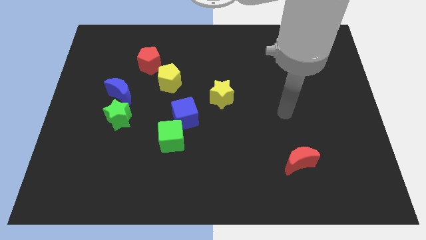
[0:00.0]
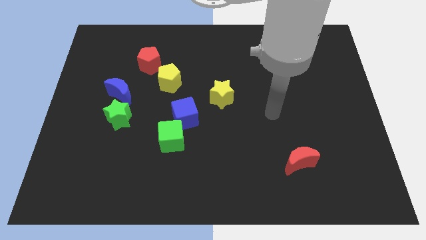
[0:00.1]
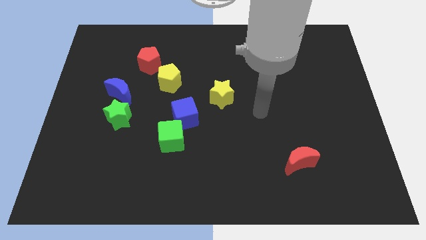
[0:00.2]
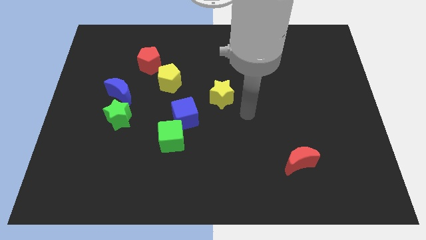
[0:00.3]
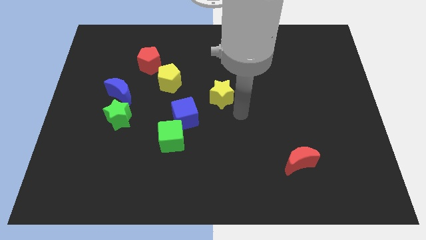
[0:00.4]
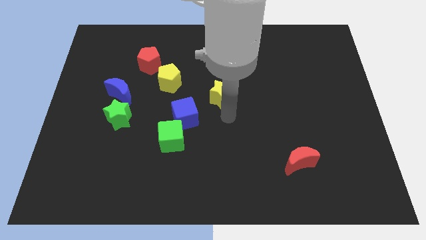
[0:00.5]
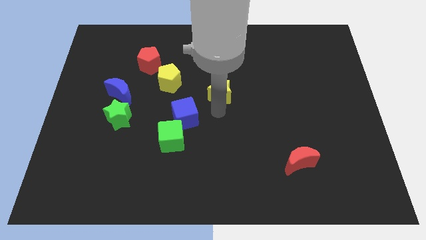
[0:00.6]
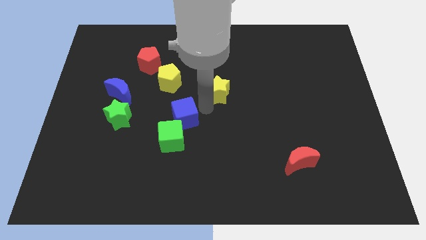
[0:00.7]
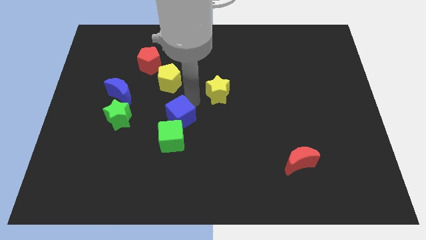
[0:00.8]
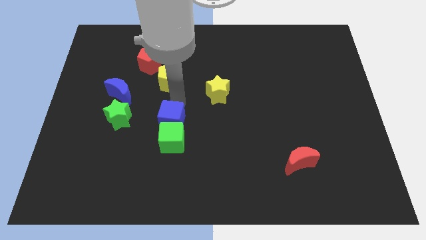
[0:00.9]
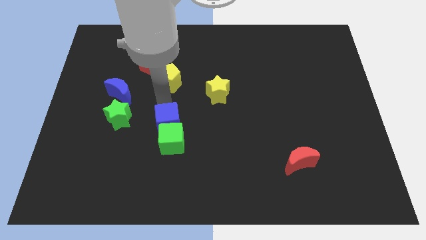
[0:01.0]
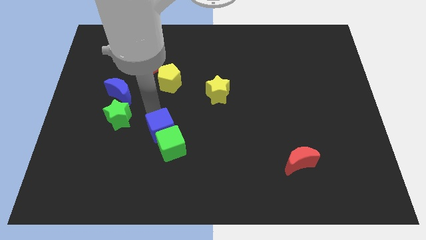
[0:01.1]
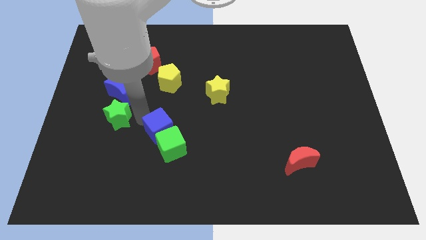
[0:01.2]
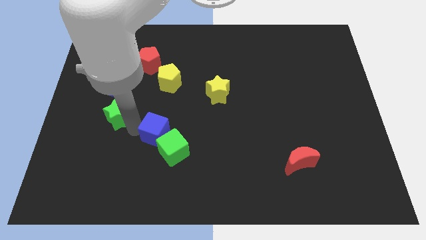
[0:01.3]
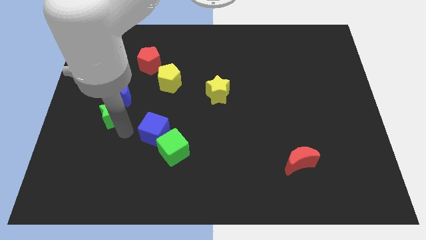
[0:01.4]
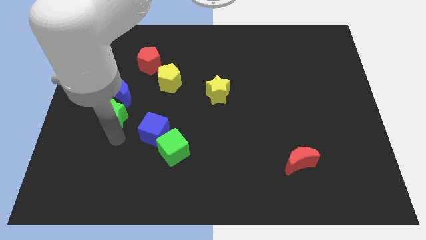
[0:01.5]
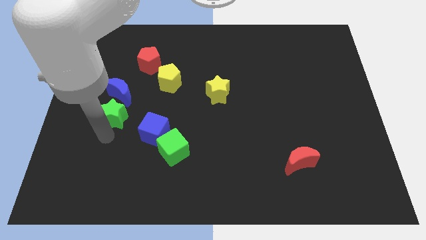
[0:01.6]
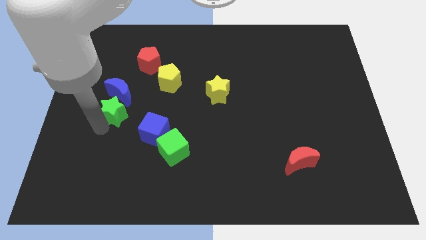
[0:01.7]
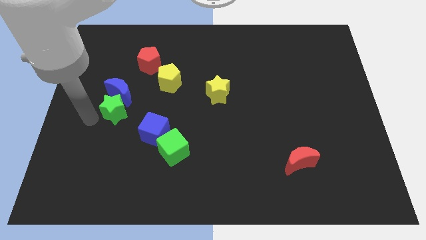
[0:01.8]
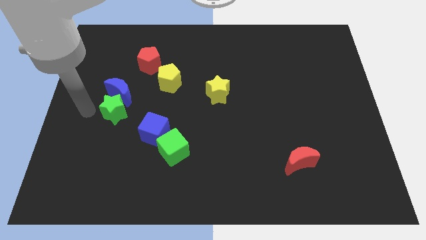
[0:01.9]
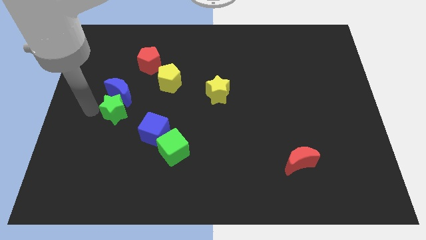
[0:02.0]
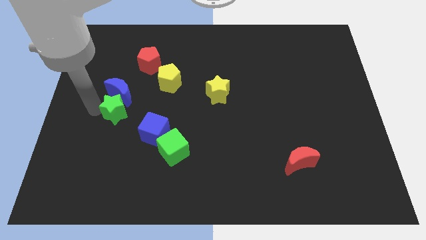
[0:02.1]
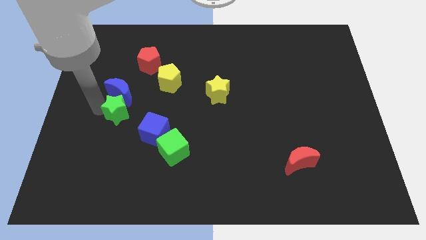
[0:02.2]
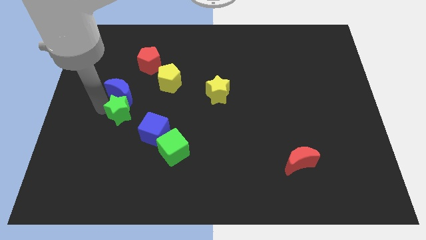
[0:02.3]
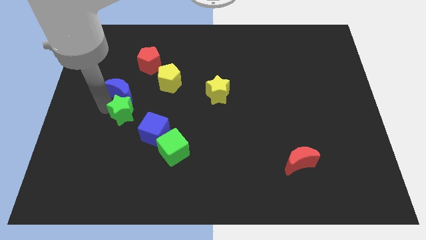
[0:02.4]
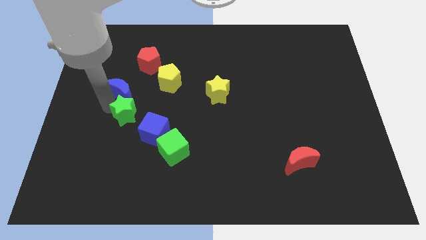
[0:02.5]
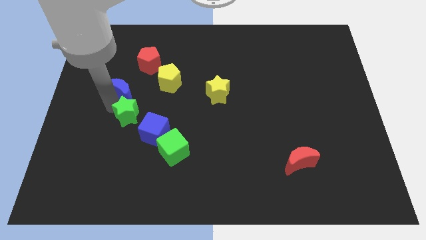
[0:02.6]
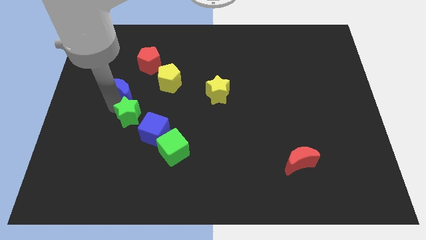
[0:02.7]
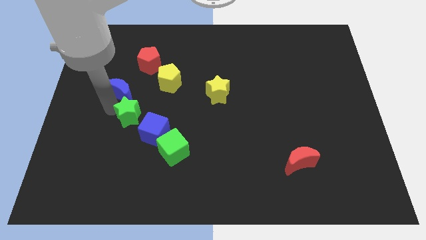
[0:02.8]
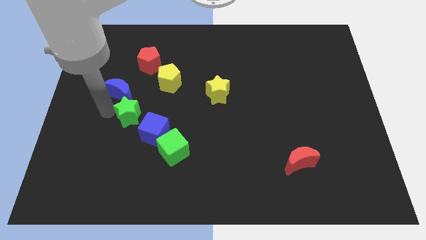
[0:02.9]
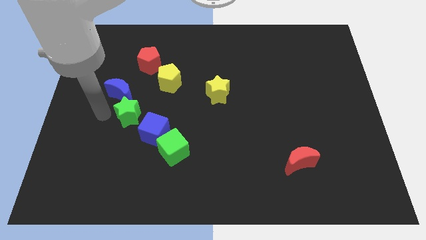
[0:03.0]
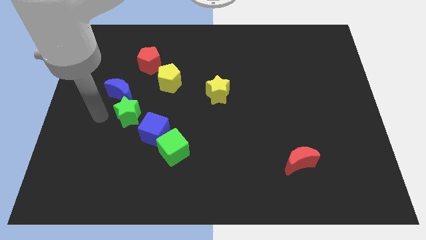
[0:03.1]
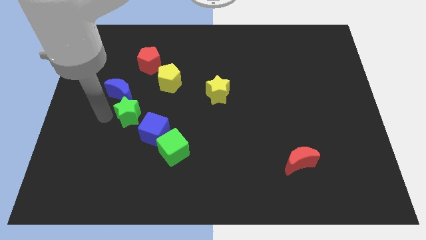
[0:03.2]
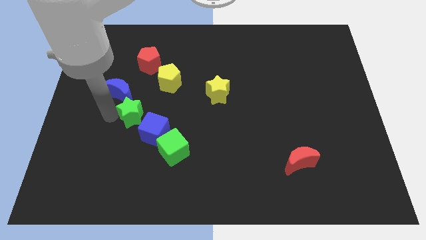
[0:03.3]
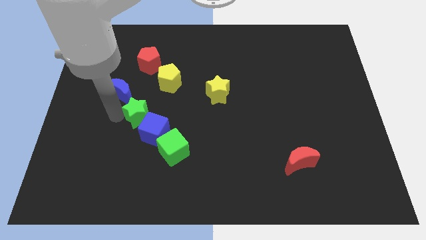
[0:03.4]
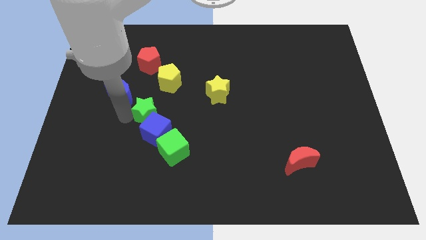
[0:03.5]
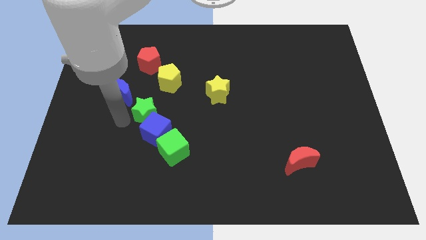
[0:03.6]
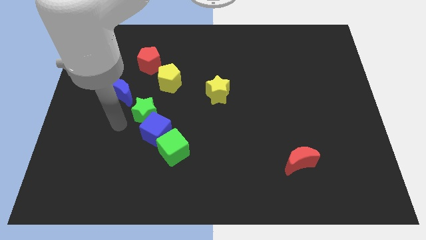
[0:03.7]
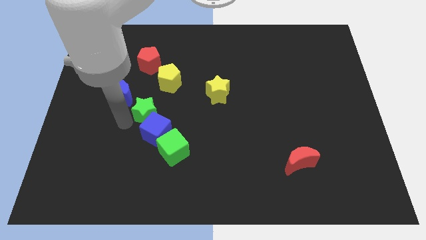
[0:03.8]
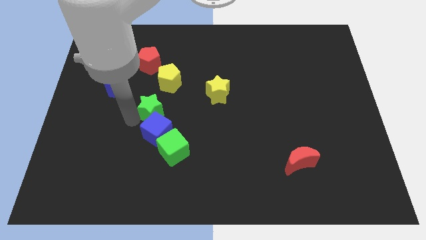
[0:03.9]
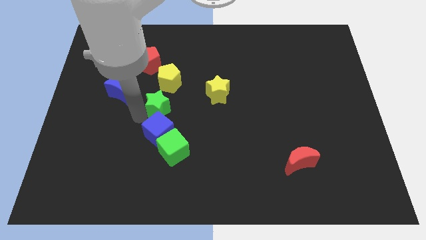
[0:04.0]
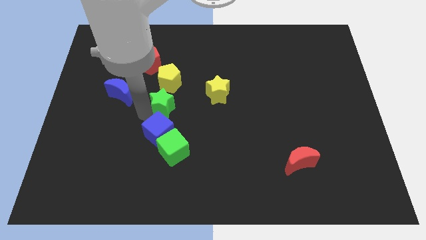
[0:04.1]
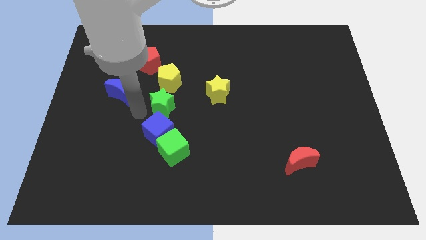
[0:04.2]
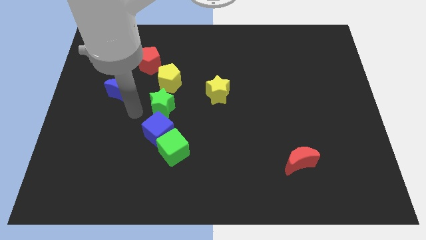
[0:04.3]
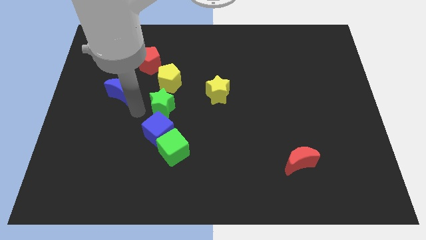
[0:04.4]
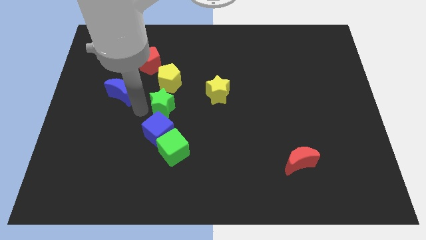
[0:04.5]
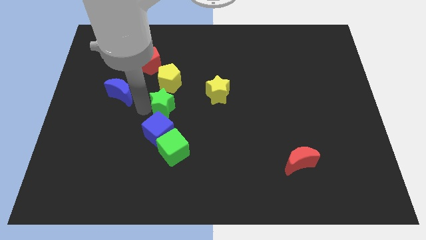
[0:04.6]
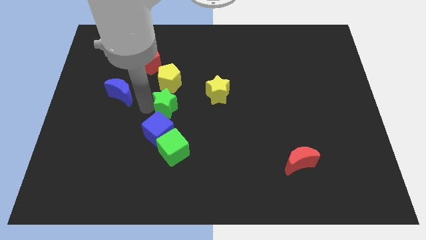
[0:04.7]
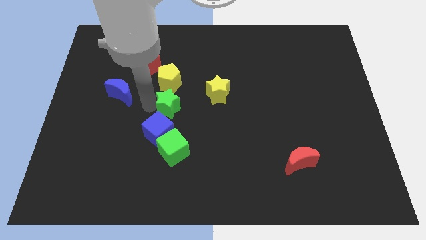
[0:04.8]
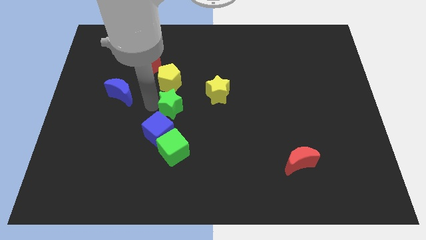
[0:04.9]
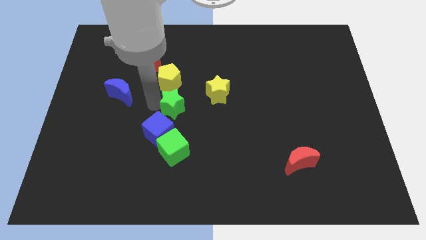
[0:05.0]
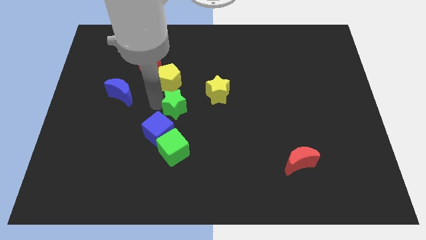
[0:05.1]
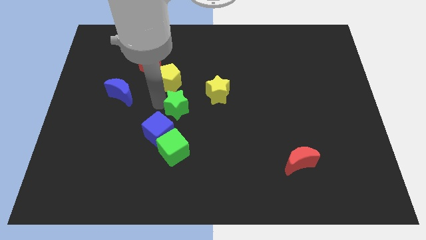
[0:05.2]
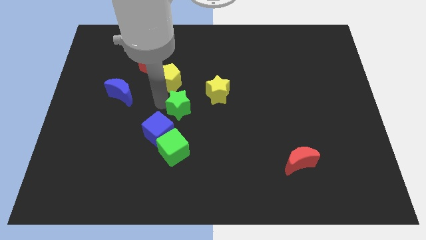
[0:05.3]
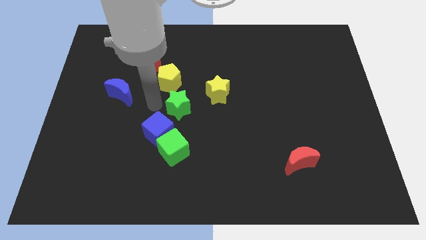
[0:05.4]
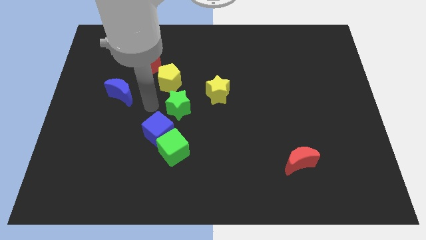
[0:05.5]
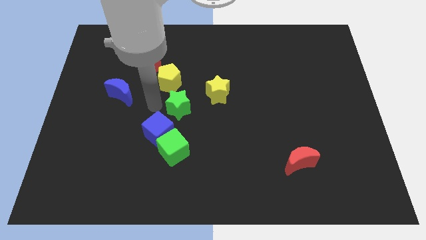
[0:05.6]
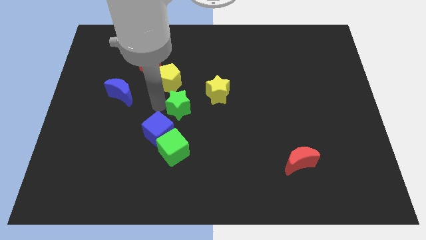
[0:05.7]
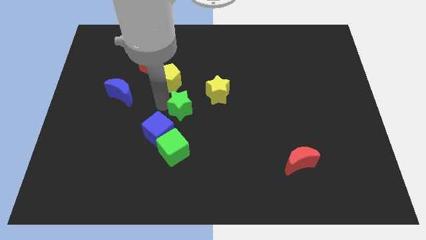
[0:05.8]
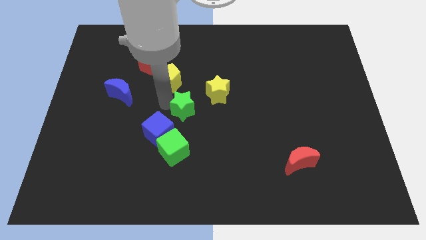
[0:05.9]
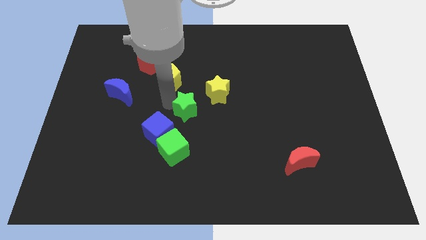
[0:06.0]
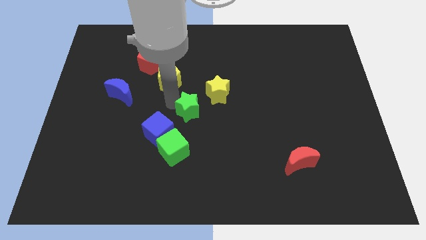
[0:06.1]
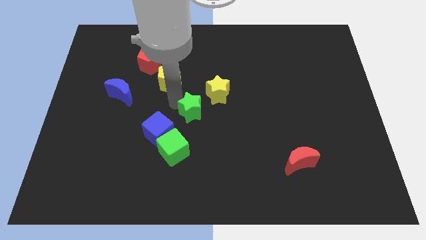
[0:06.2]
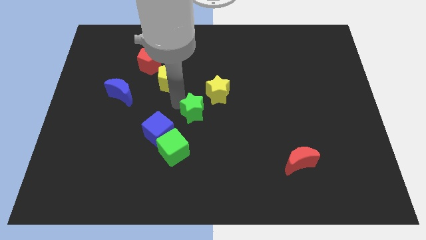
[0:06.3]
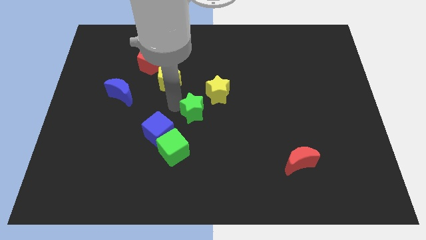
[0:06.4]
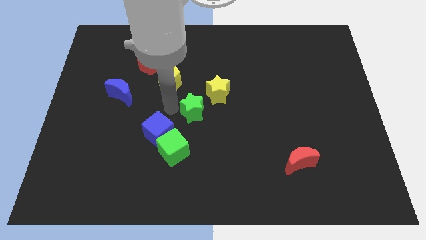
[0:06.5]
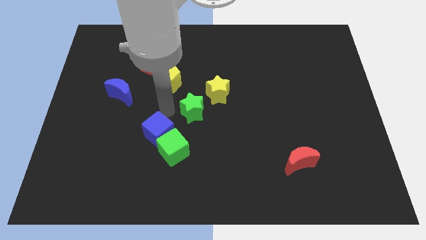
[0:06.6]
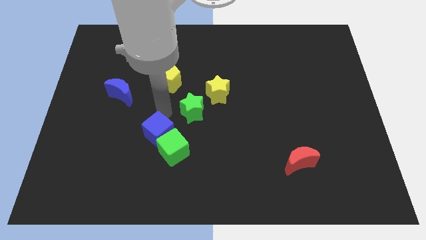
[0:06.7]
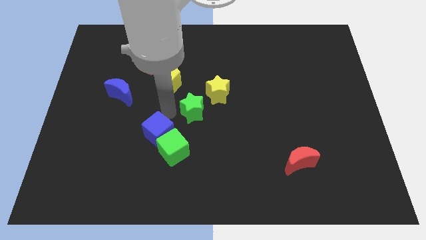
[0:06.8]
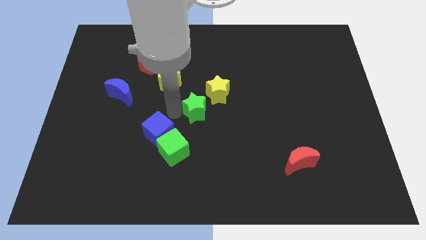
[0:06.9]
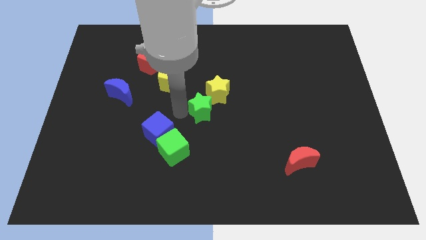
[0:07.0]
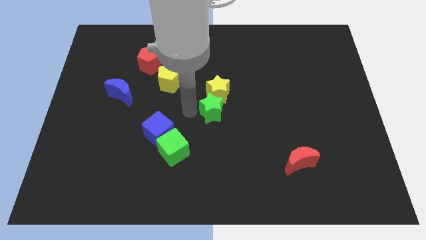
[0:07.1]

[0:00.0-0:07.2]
slide the green star right

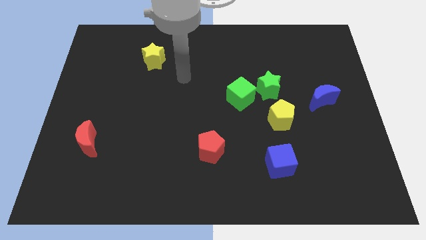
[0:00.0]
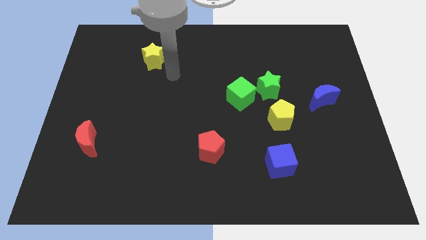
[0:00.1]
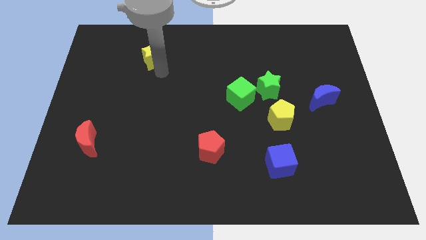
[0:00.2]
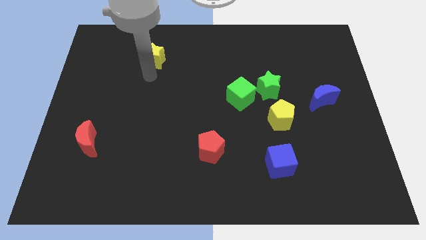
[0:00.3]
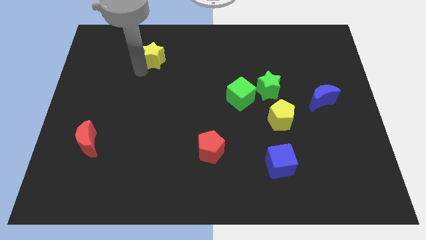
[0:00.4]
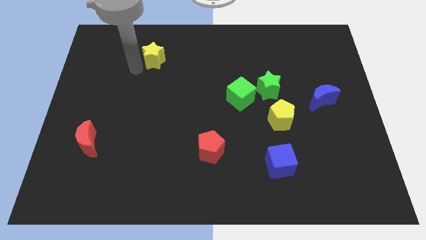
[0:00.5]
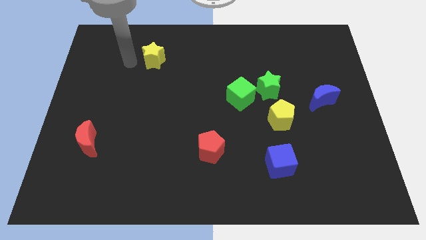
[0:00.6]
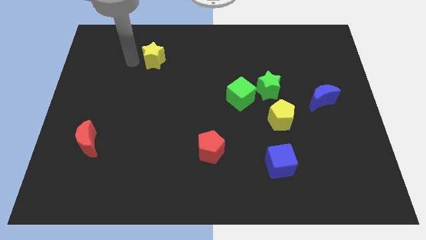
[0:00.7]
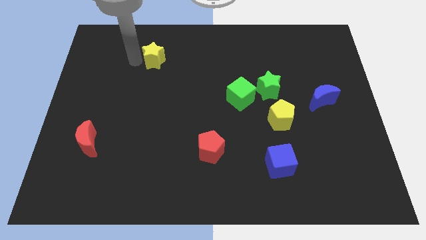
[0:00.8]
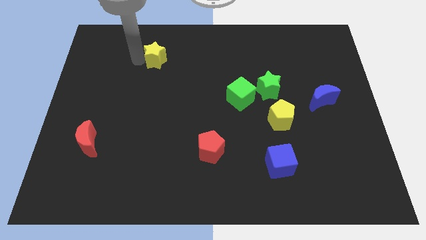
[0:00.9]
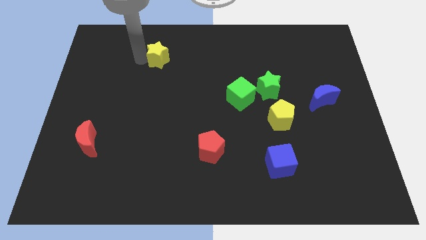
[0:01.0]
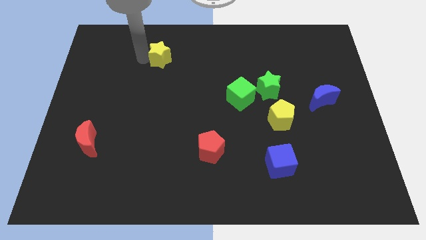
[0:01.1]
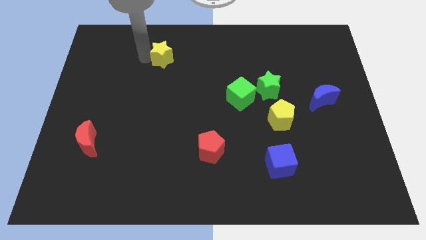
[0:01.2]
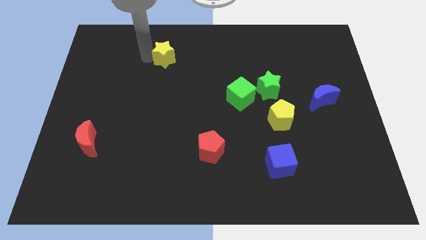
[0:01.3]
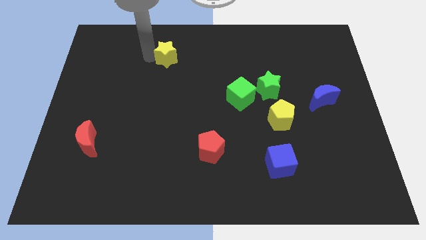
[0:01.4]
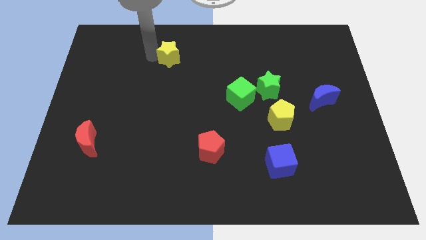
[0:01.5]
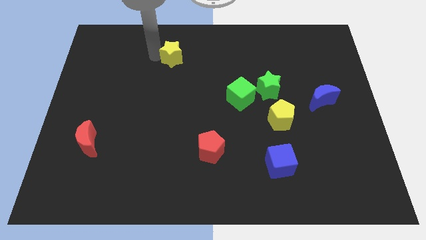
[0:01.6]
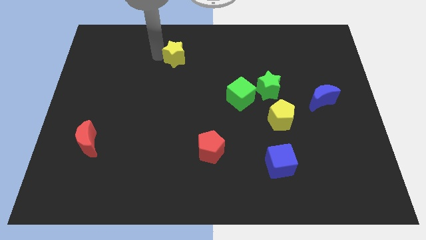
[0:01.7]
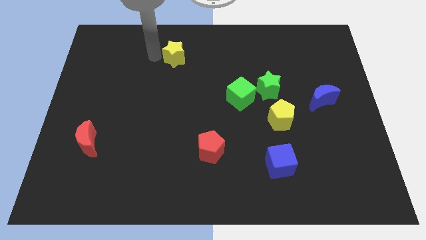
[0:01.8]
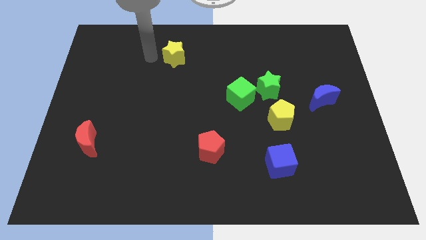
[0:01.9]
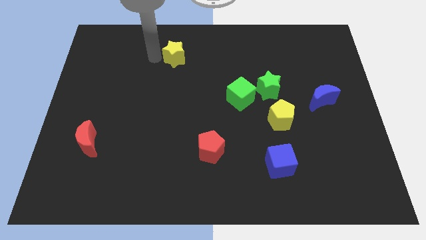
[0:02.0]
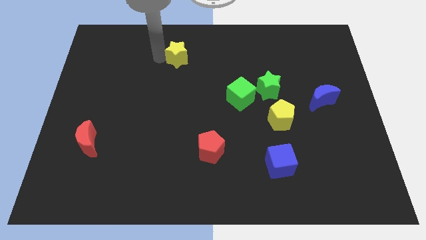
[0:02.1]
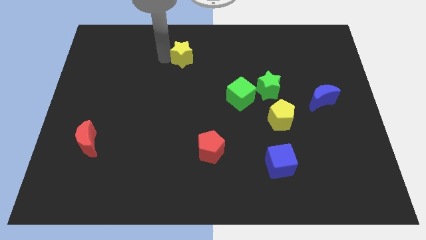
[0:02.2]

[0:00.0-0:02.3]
push the yellow star a bit to the right
